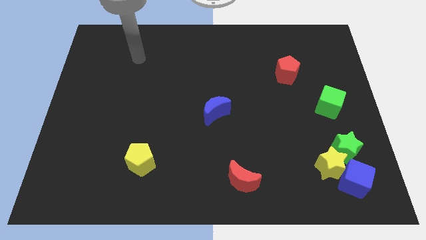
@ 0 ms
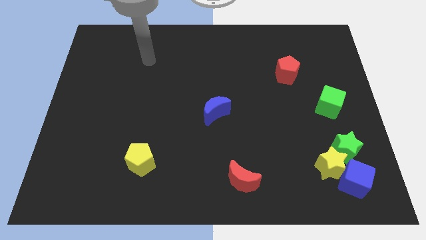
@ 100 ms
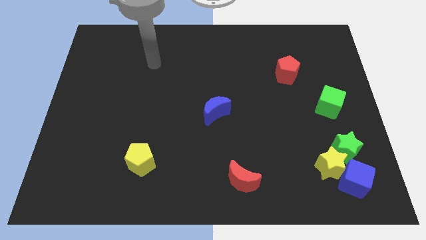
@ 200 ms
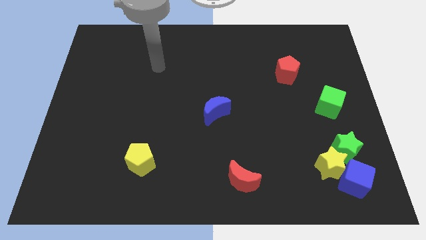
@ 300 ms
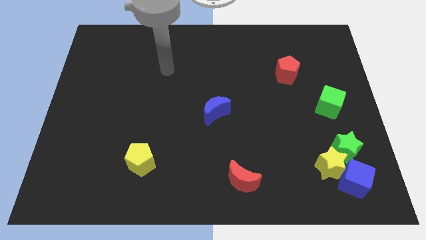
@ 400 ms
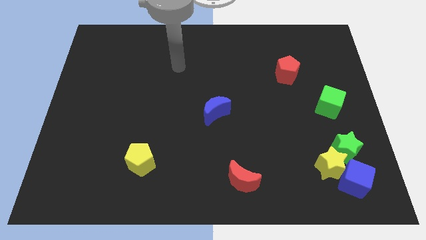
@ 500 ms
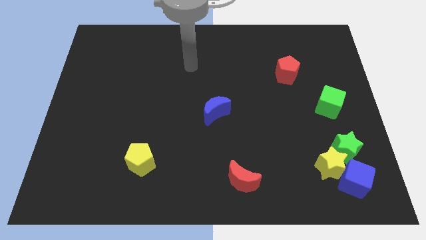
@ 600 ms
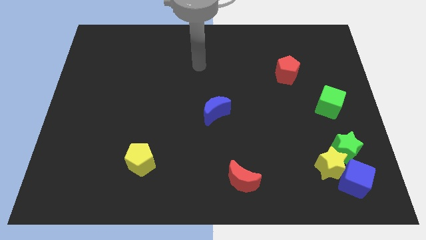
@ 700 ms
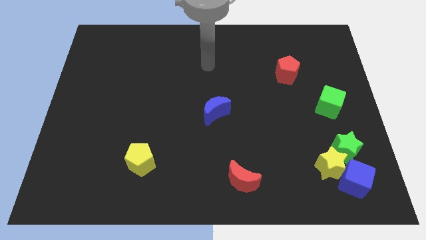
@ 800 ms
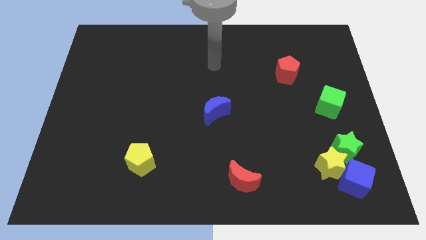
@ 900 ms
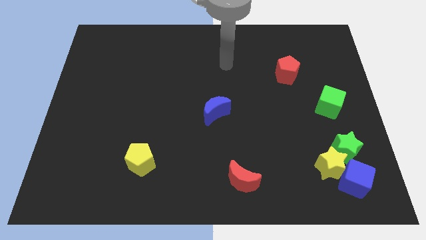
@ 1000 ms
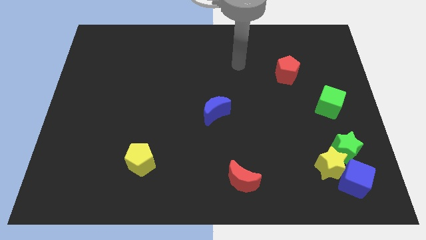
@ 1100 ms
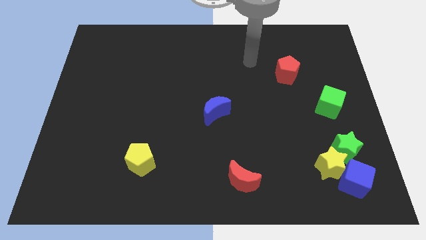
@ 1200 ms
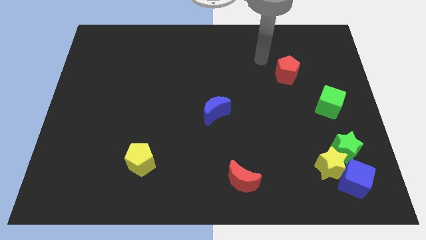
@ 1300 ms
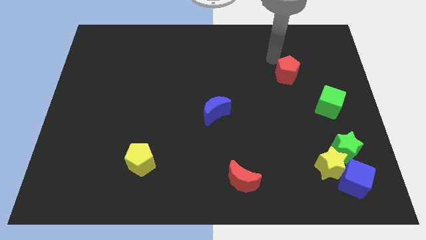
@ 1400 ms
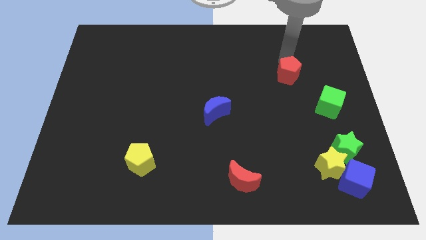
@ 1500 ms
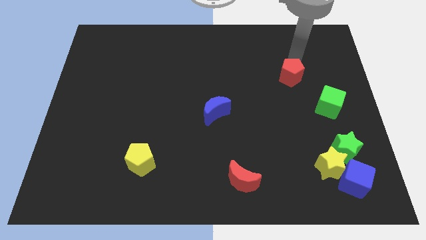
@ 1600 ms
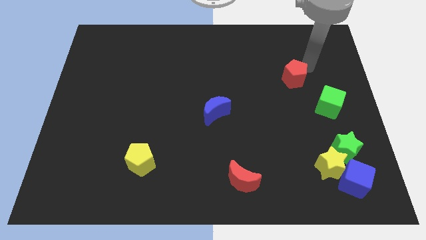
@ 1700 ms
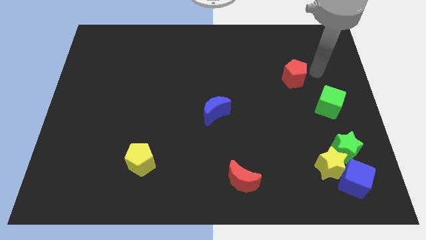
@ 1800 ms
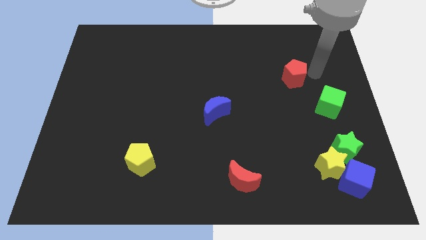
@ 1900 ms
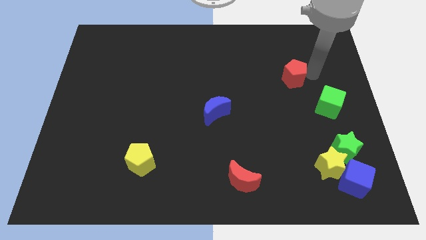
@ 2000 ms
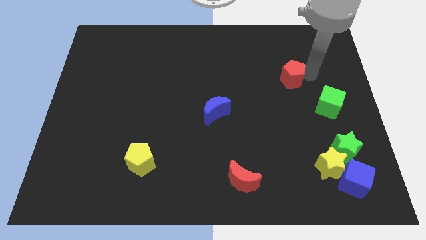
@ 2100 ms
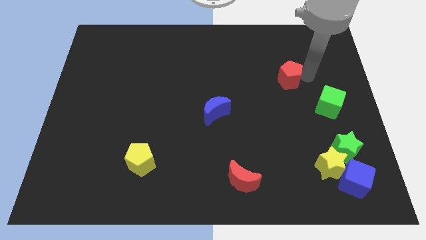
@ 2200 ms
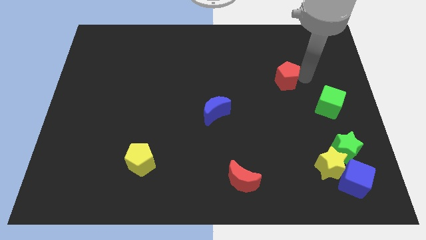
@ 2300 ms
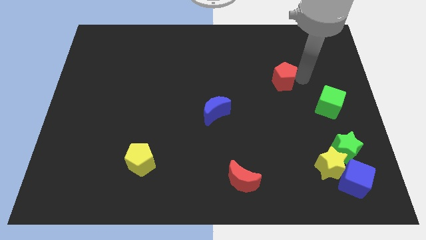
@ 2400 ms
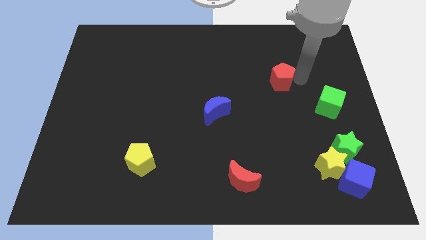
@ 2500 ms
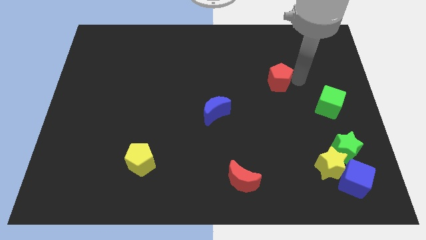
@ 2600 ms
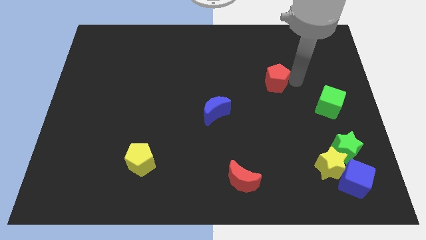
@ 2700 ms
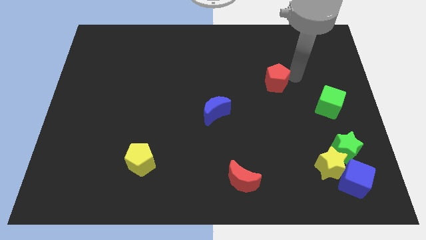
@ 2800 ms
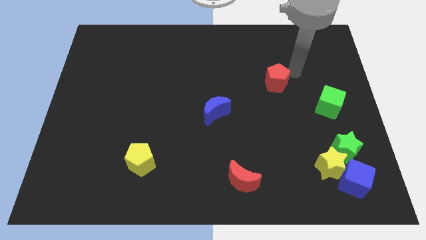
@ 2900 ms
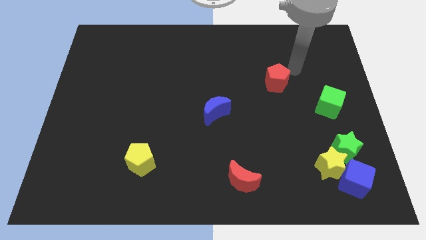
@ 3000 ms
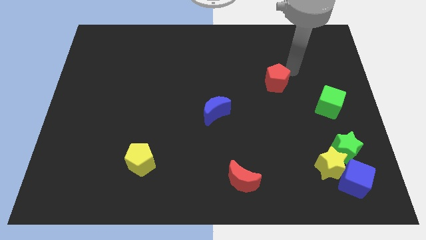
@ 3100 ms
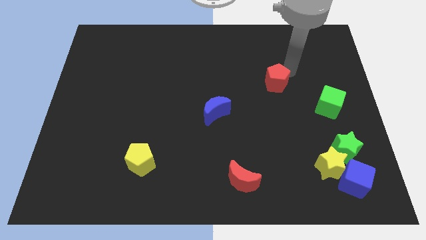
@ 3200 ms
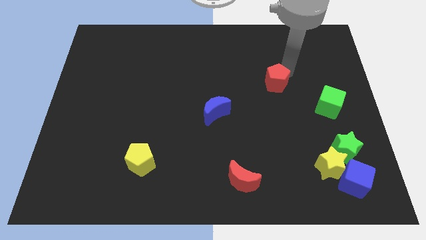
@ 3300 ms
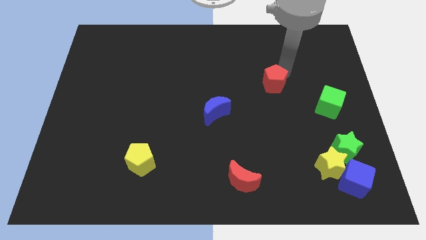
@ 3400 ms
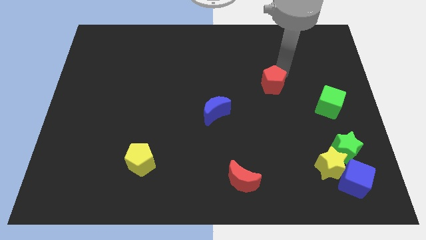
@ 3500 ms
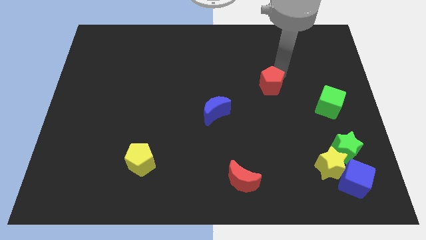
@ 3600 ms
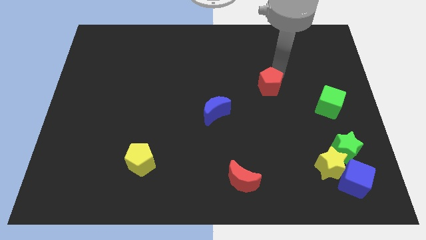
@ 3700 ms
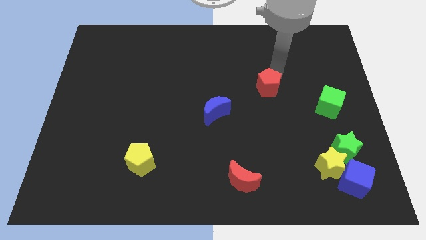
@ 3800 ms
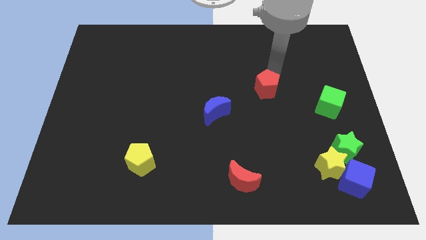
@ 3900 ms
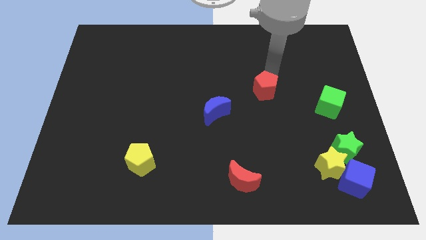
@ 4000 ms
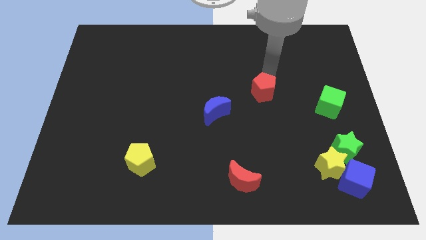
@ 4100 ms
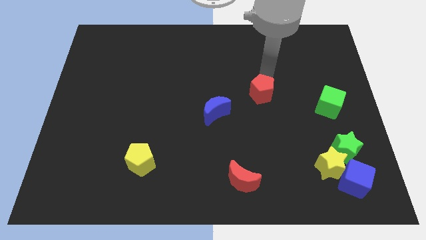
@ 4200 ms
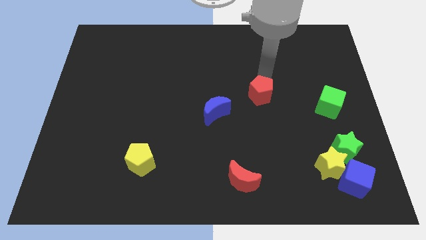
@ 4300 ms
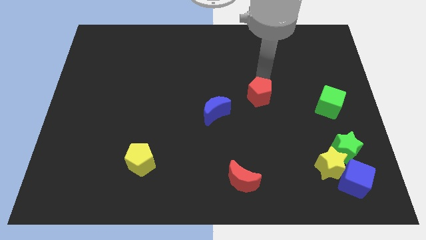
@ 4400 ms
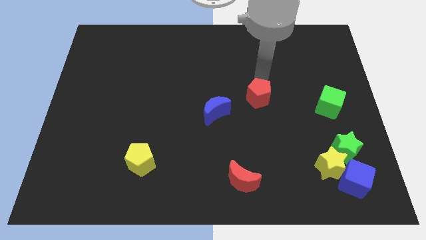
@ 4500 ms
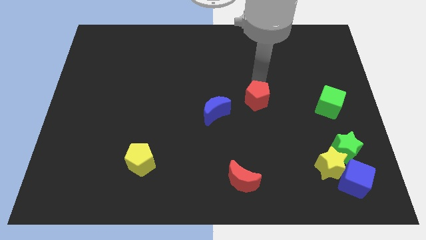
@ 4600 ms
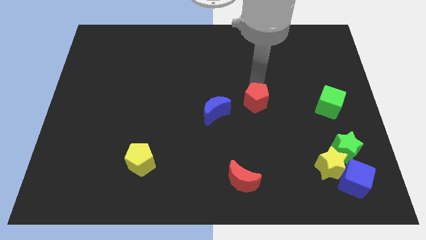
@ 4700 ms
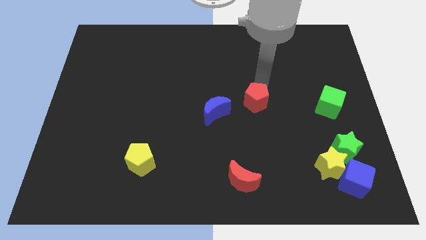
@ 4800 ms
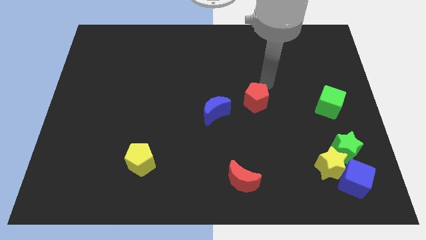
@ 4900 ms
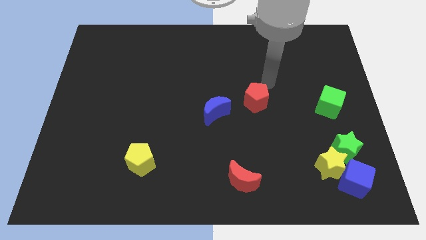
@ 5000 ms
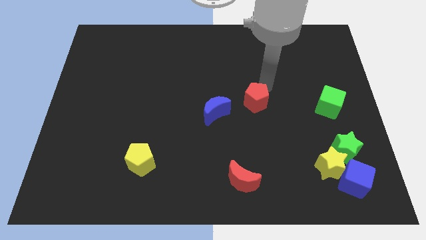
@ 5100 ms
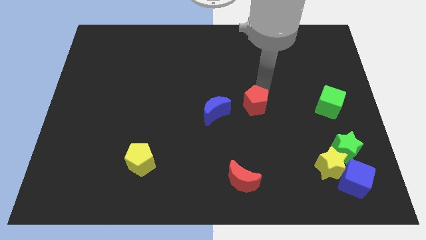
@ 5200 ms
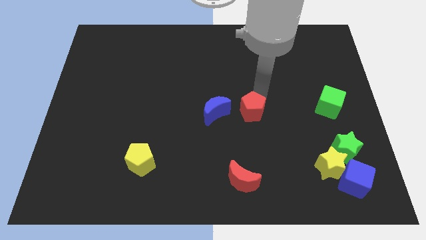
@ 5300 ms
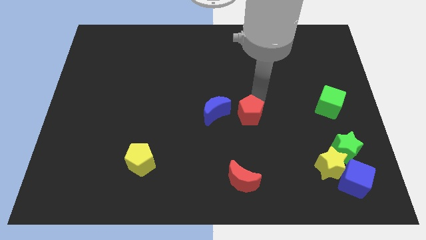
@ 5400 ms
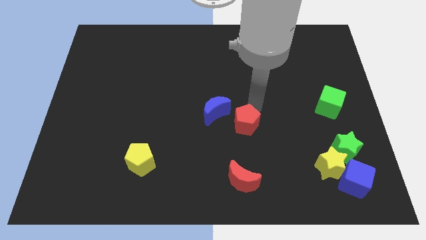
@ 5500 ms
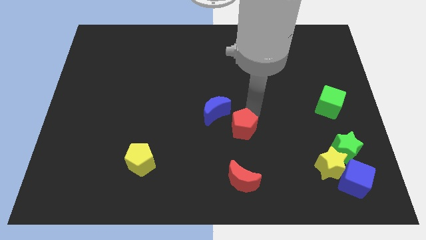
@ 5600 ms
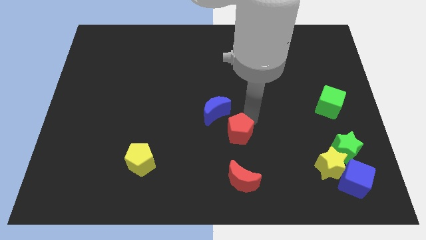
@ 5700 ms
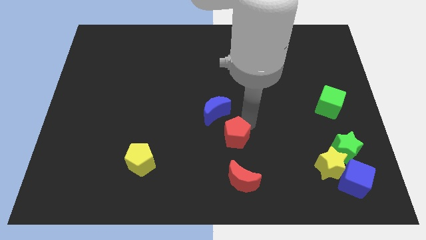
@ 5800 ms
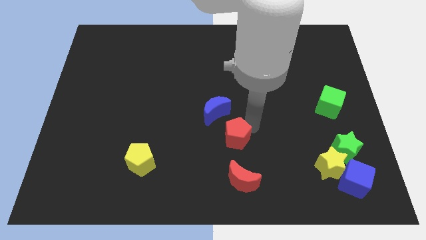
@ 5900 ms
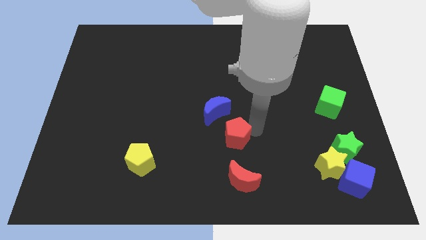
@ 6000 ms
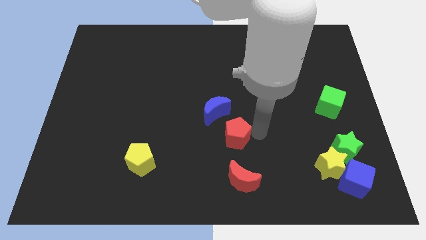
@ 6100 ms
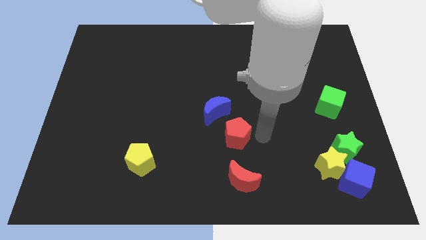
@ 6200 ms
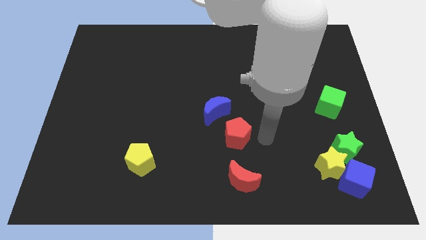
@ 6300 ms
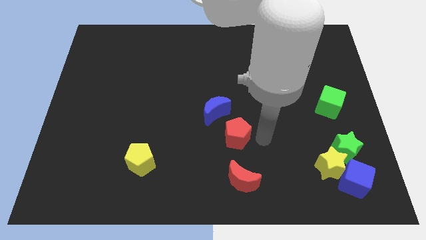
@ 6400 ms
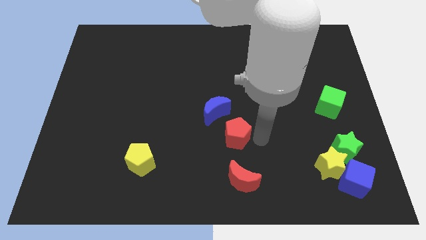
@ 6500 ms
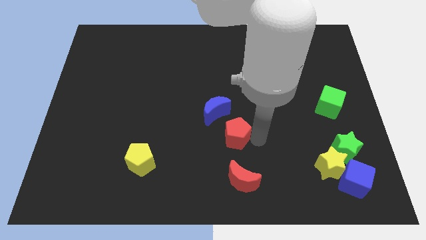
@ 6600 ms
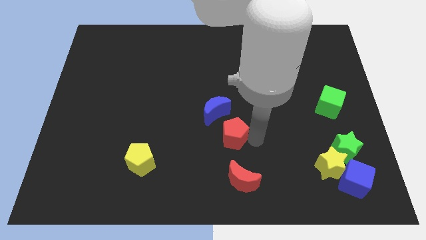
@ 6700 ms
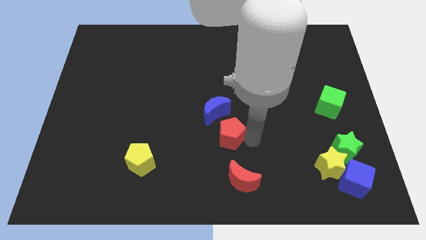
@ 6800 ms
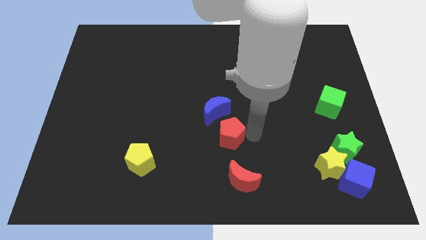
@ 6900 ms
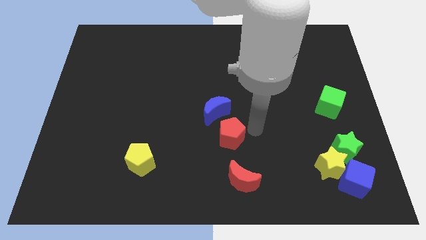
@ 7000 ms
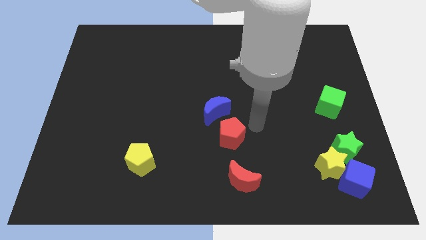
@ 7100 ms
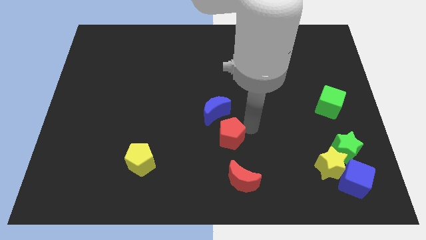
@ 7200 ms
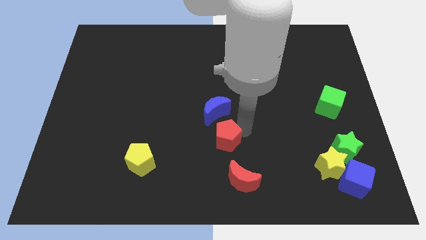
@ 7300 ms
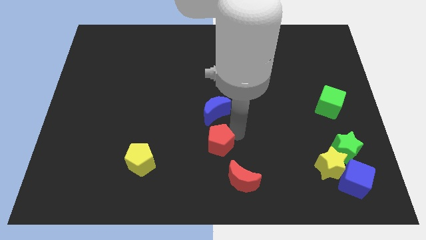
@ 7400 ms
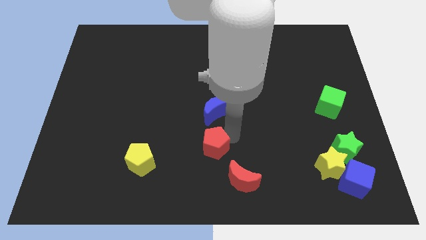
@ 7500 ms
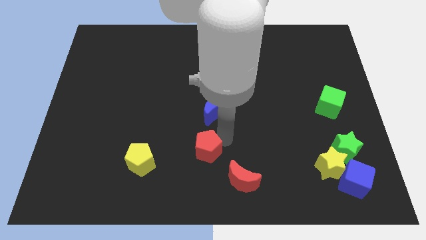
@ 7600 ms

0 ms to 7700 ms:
slide the red pentagon just right of the yellow pentagon
